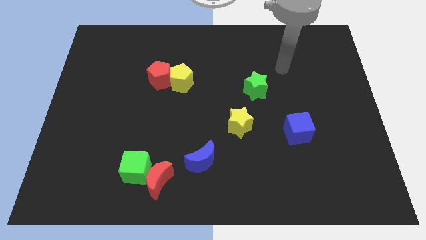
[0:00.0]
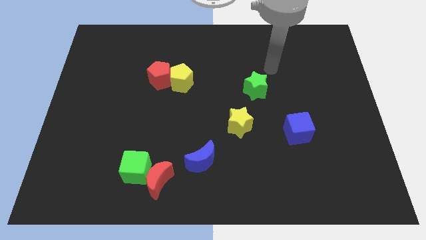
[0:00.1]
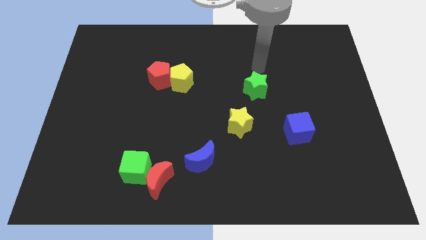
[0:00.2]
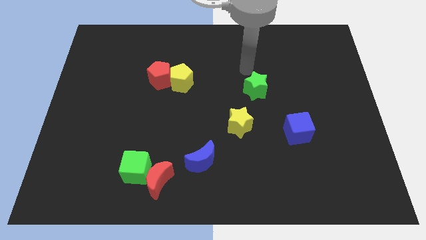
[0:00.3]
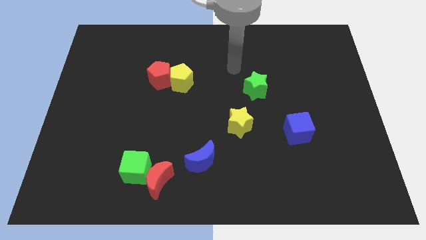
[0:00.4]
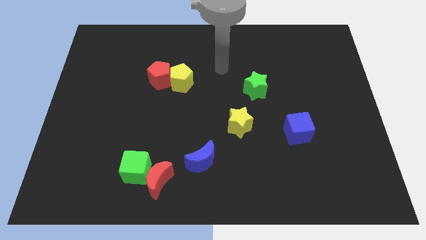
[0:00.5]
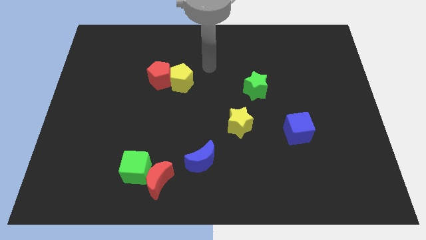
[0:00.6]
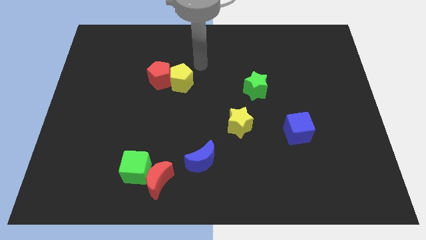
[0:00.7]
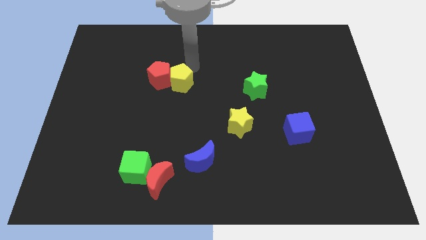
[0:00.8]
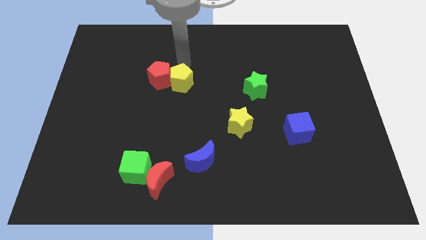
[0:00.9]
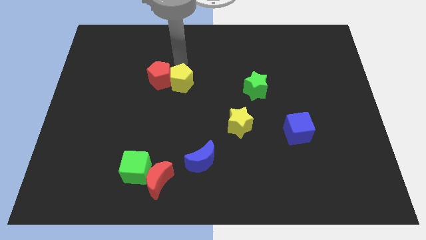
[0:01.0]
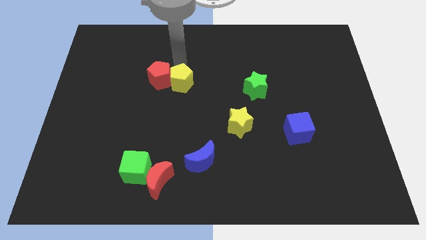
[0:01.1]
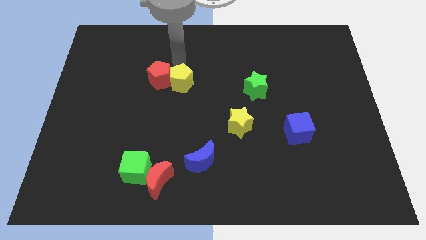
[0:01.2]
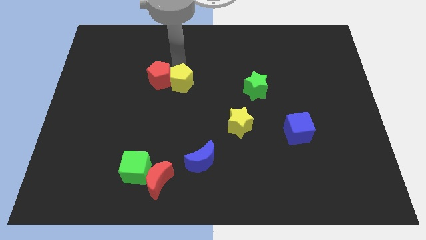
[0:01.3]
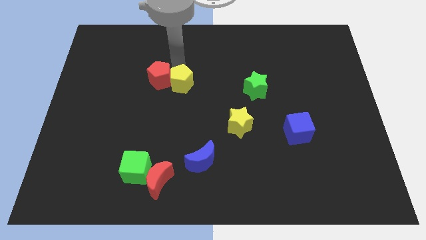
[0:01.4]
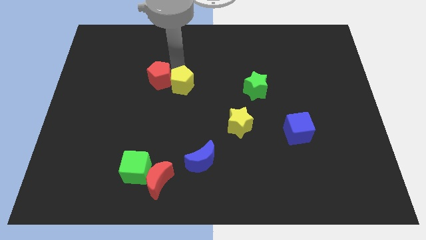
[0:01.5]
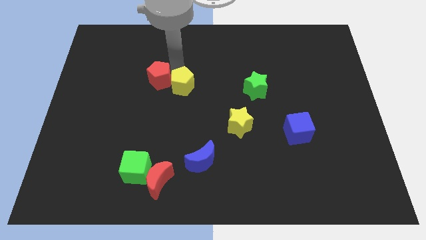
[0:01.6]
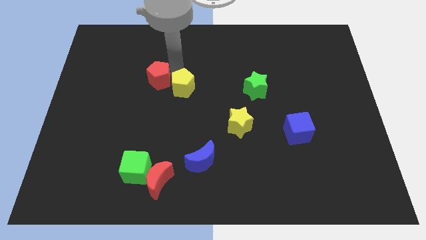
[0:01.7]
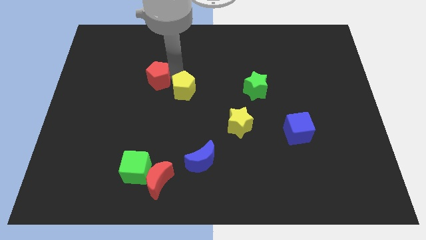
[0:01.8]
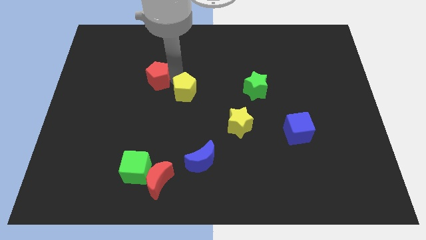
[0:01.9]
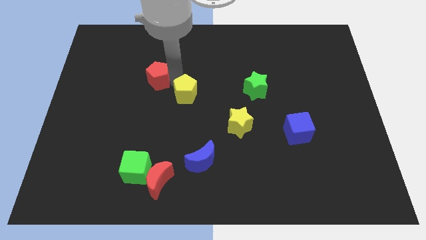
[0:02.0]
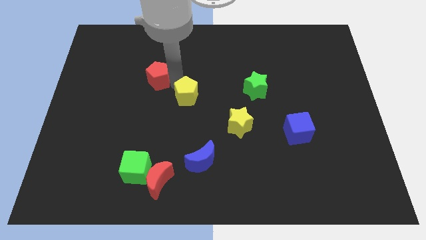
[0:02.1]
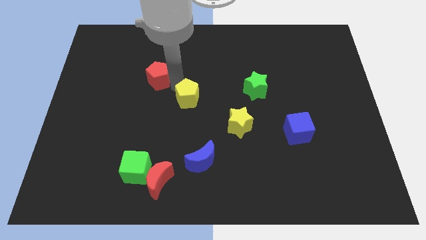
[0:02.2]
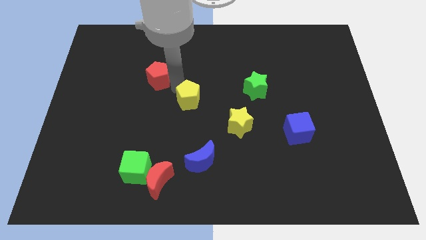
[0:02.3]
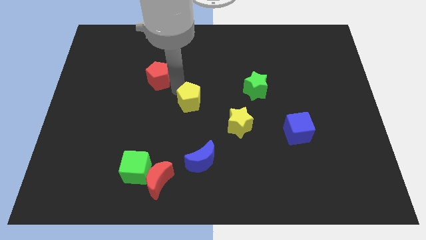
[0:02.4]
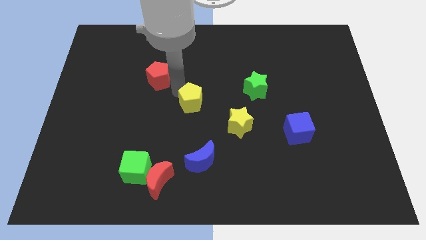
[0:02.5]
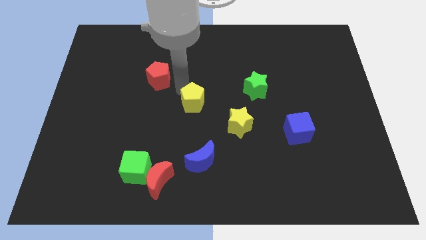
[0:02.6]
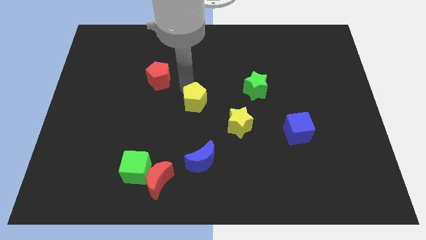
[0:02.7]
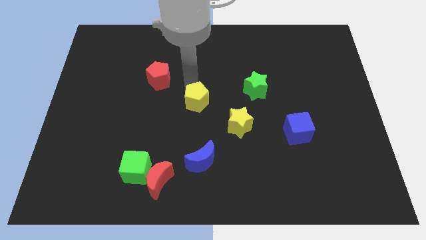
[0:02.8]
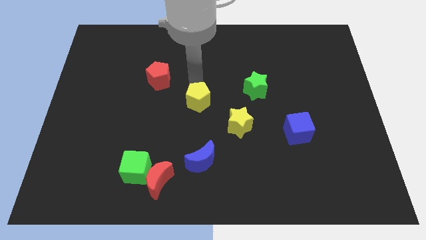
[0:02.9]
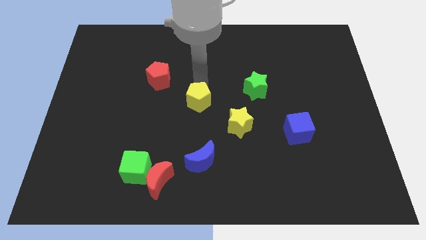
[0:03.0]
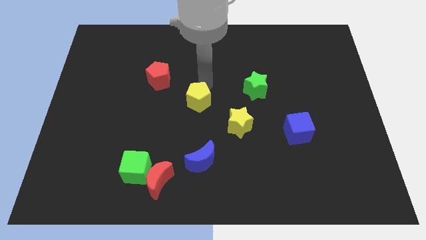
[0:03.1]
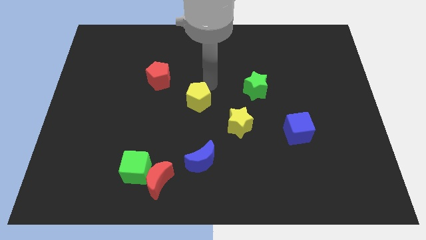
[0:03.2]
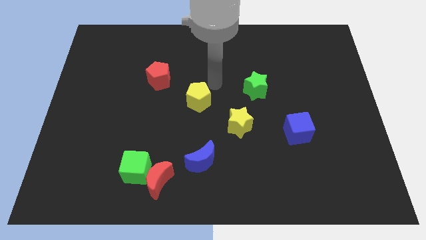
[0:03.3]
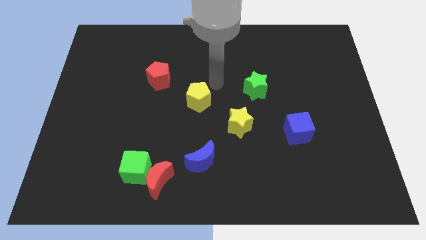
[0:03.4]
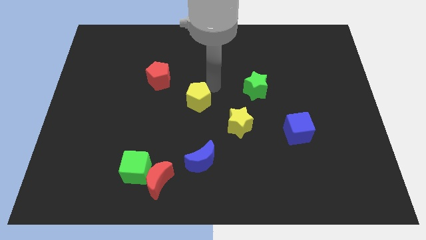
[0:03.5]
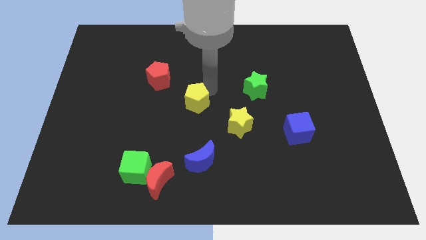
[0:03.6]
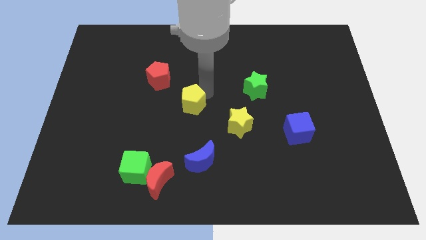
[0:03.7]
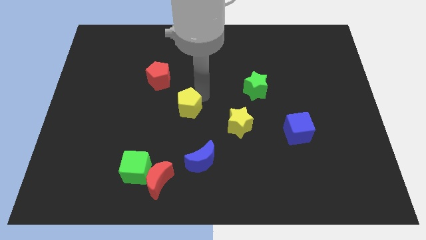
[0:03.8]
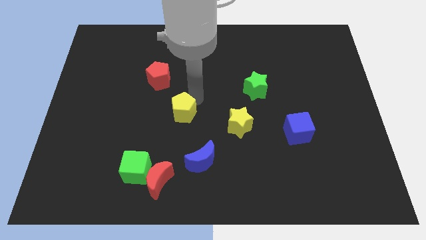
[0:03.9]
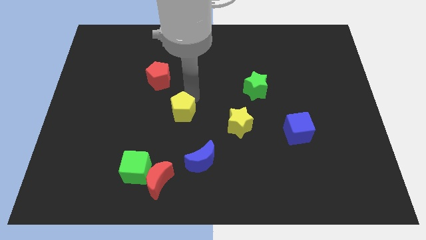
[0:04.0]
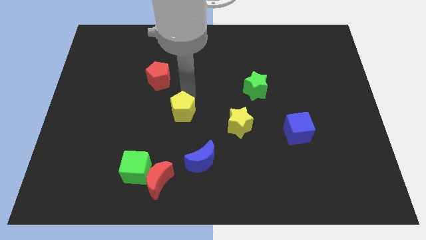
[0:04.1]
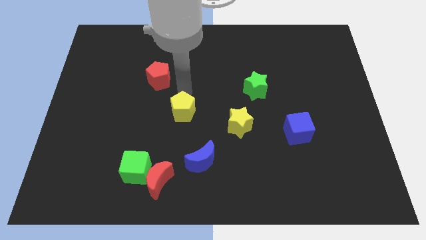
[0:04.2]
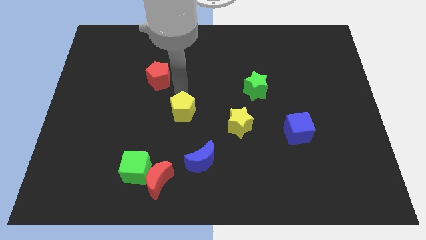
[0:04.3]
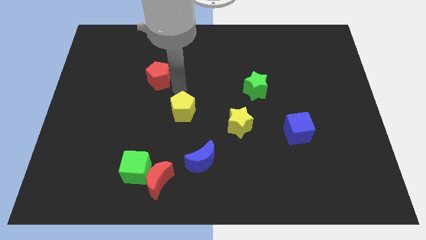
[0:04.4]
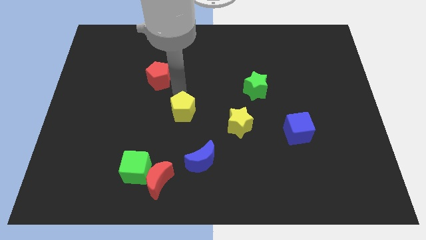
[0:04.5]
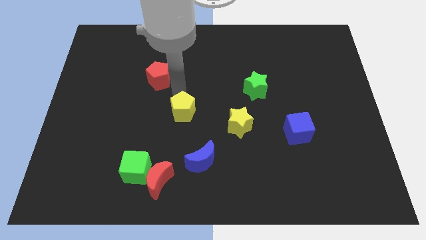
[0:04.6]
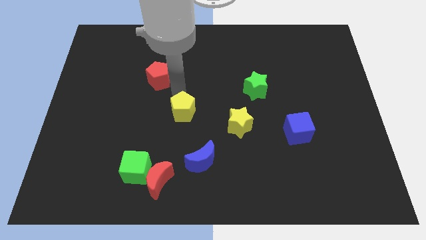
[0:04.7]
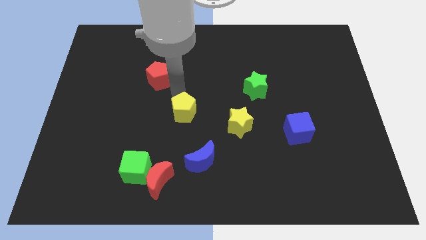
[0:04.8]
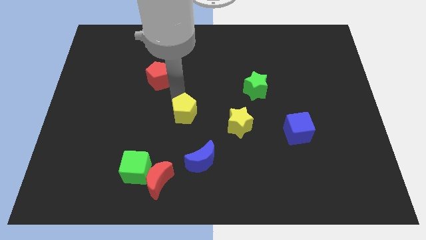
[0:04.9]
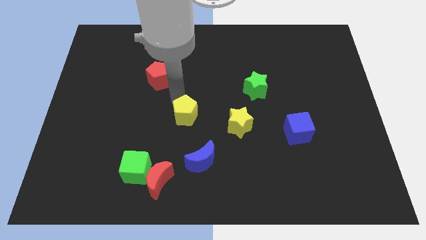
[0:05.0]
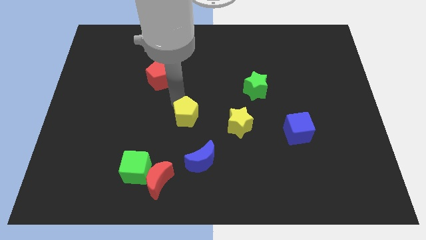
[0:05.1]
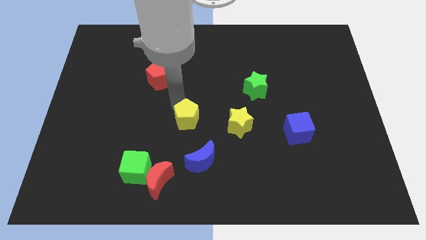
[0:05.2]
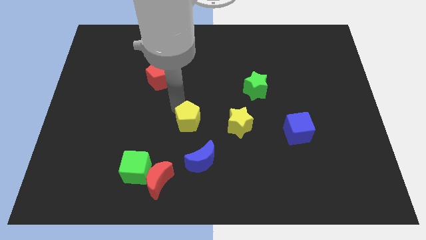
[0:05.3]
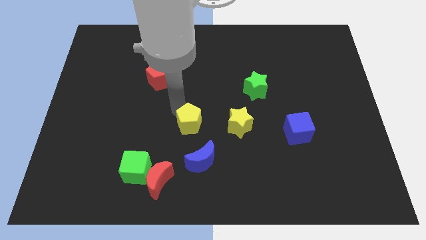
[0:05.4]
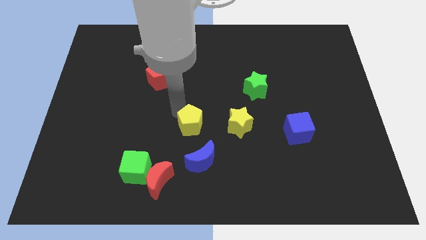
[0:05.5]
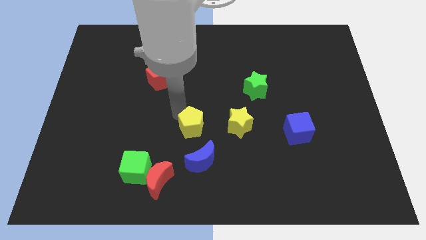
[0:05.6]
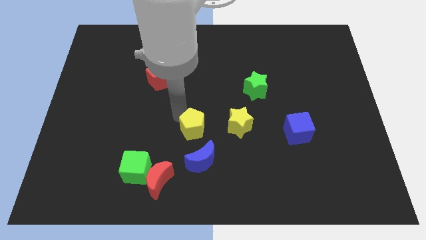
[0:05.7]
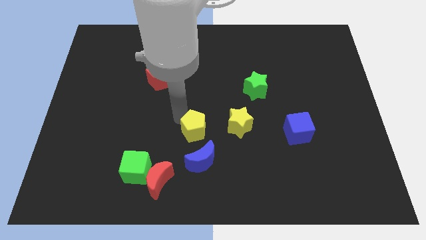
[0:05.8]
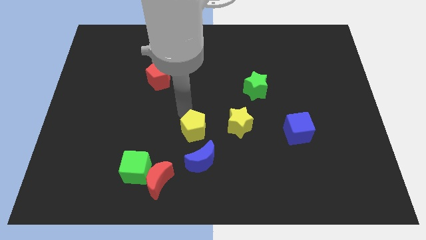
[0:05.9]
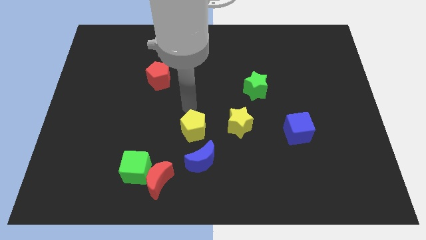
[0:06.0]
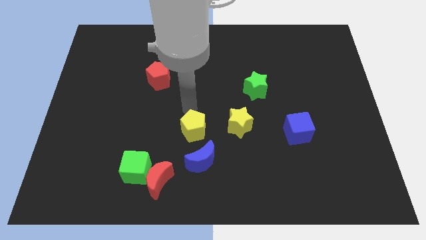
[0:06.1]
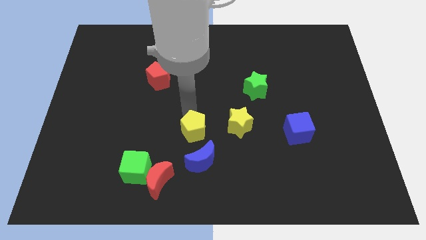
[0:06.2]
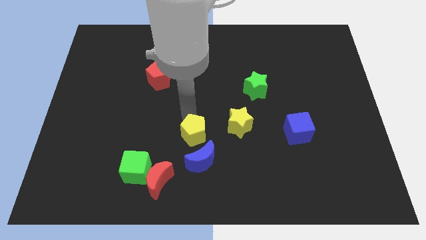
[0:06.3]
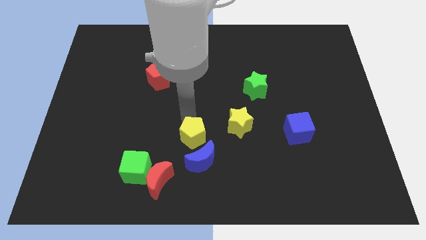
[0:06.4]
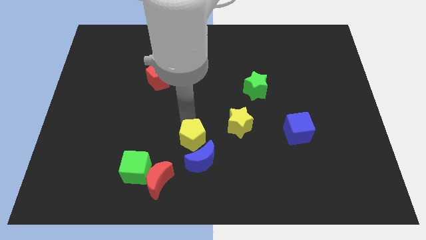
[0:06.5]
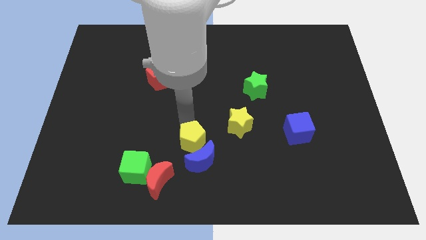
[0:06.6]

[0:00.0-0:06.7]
put the yellow pentagon close to the blue moon

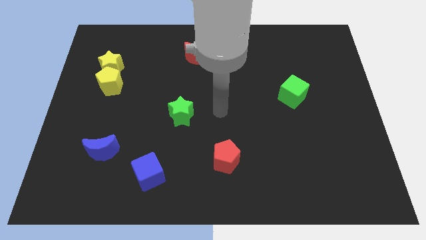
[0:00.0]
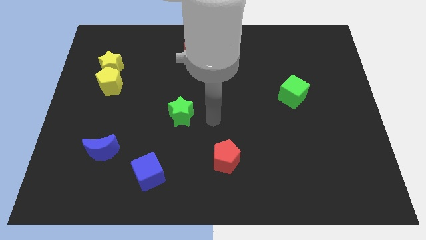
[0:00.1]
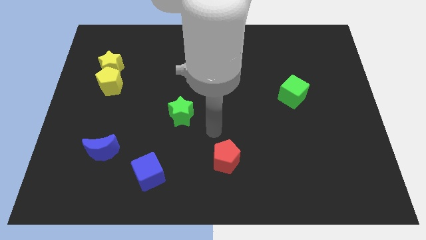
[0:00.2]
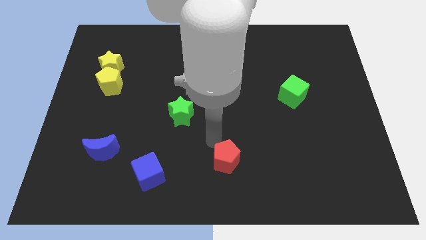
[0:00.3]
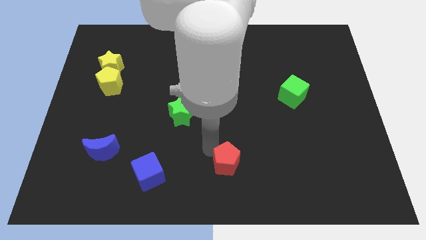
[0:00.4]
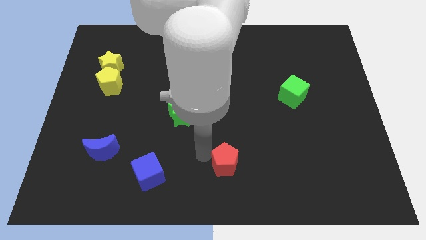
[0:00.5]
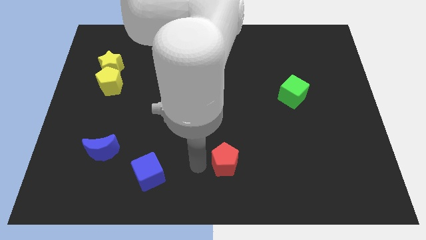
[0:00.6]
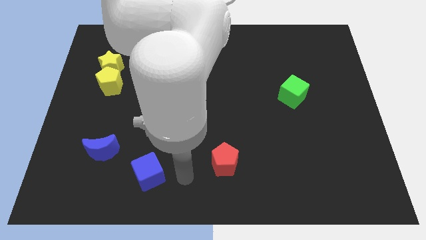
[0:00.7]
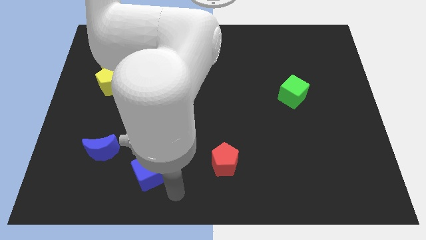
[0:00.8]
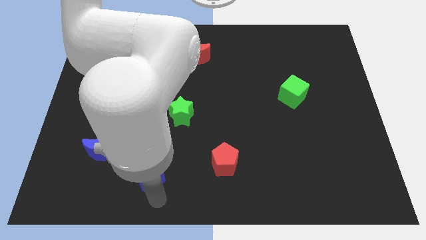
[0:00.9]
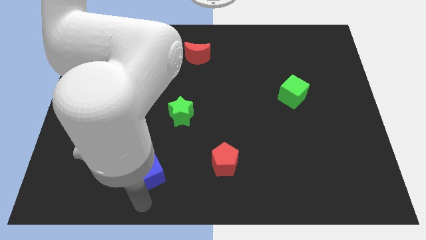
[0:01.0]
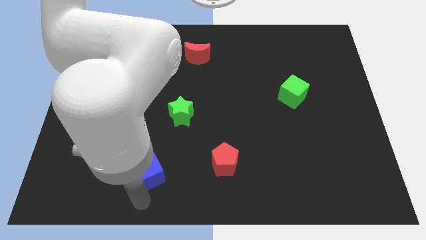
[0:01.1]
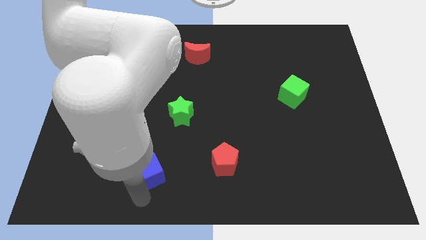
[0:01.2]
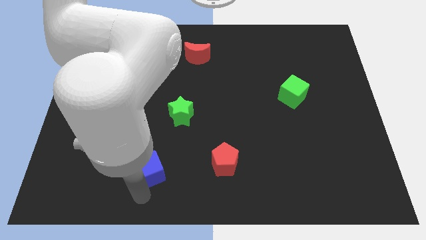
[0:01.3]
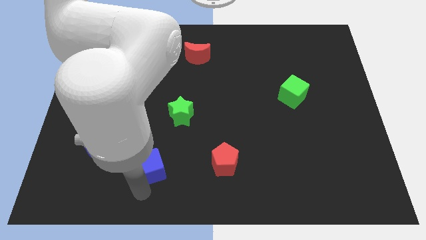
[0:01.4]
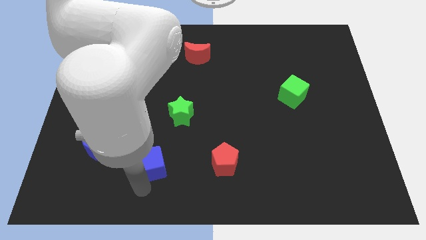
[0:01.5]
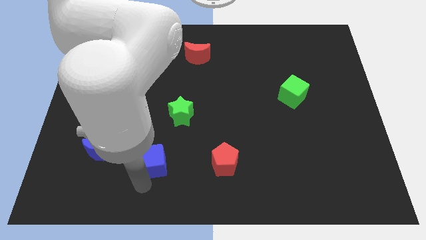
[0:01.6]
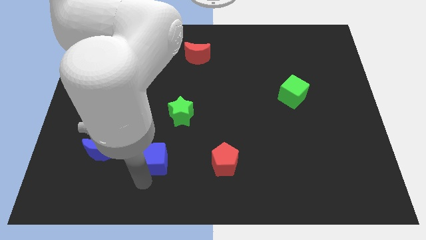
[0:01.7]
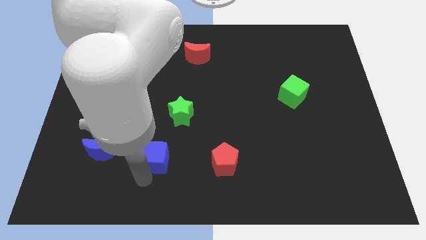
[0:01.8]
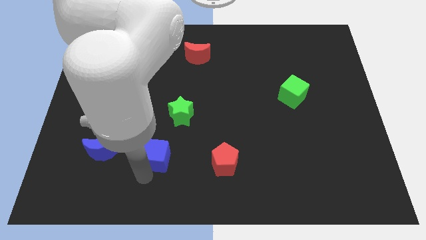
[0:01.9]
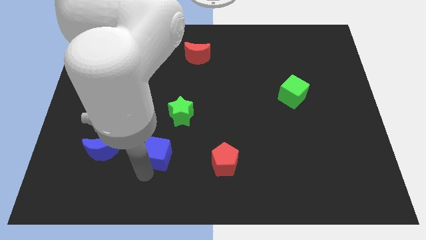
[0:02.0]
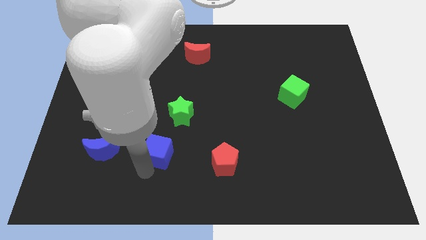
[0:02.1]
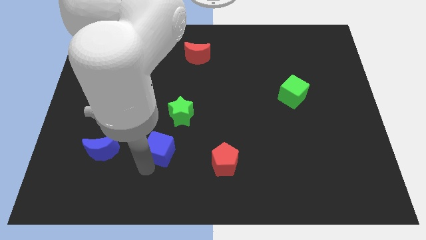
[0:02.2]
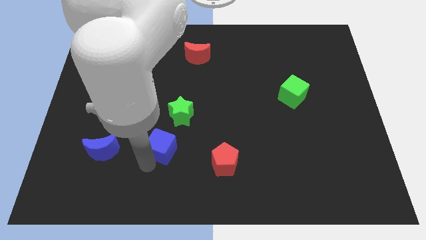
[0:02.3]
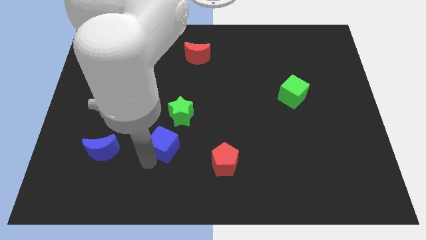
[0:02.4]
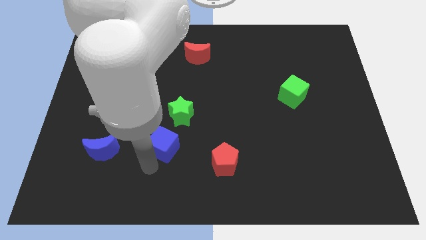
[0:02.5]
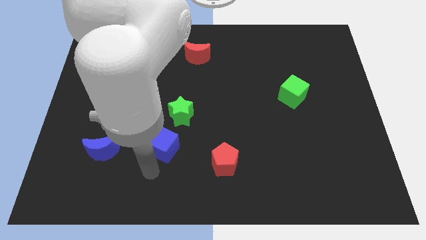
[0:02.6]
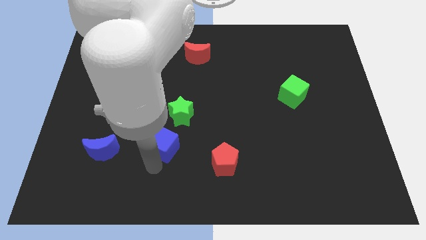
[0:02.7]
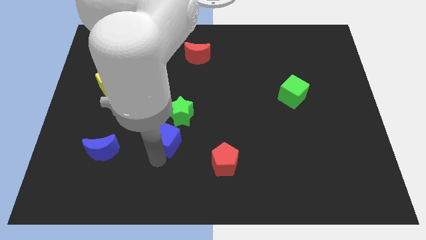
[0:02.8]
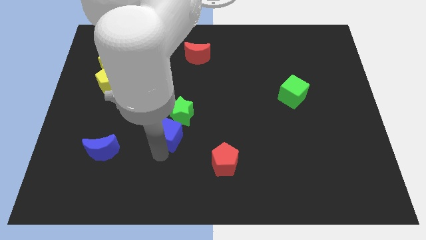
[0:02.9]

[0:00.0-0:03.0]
push the blue cube to the green star
